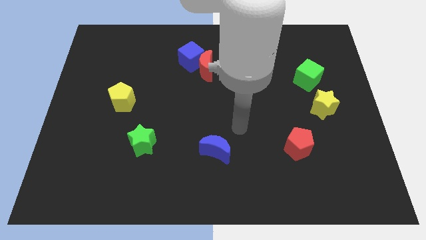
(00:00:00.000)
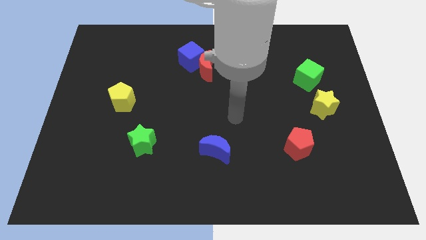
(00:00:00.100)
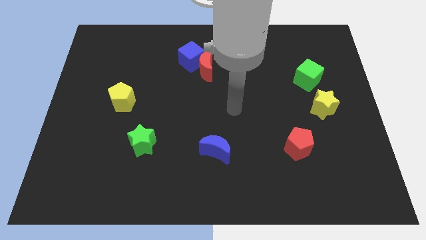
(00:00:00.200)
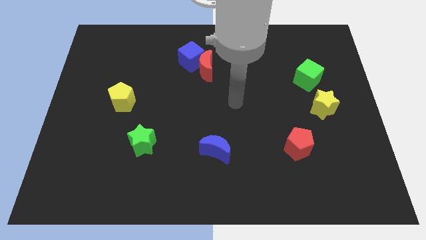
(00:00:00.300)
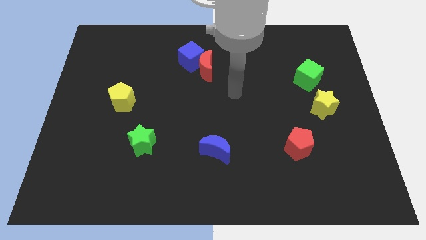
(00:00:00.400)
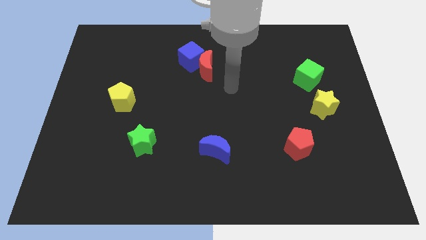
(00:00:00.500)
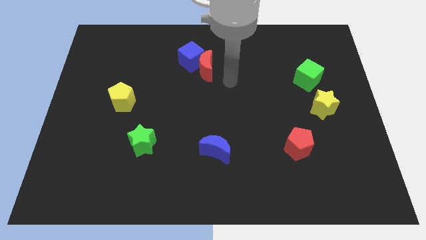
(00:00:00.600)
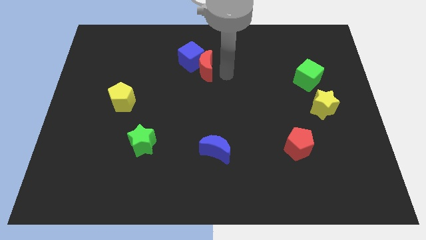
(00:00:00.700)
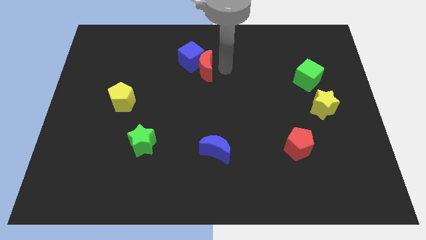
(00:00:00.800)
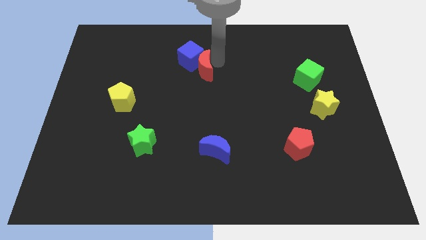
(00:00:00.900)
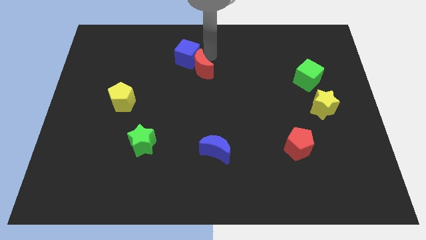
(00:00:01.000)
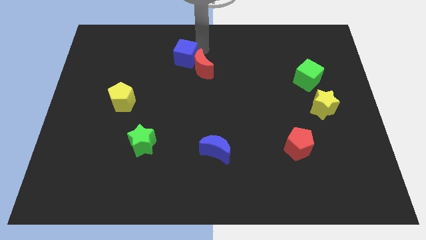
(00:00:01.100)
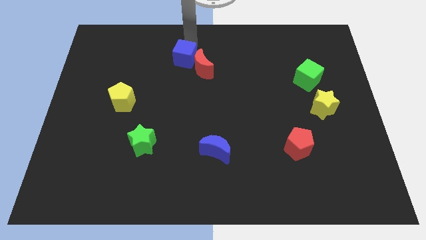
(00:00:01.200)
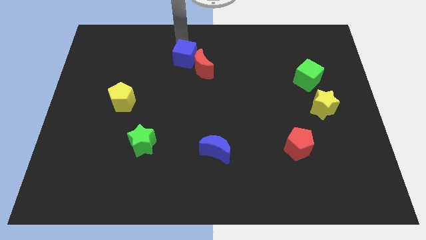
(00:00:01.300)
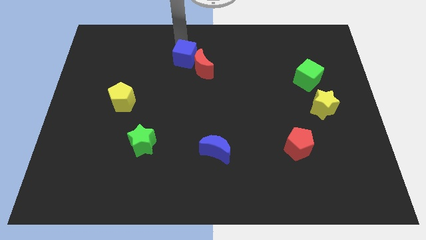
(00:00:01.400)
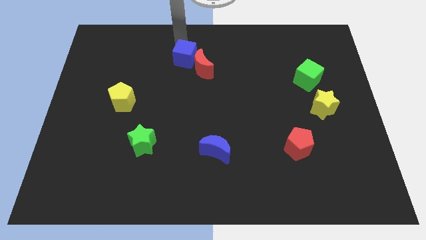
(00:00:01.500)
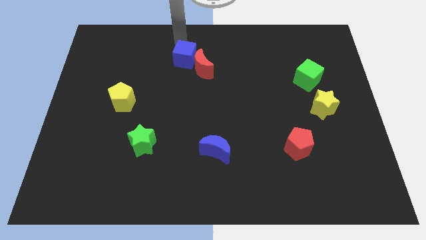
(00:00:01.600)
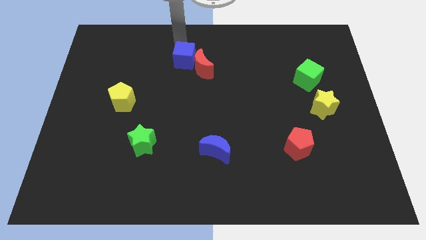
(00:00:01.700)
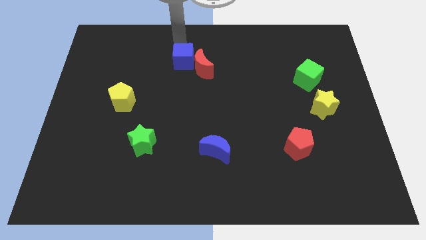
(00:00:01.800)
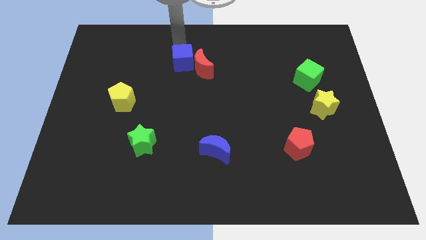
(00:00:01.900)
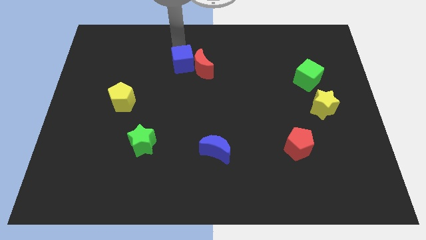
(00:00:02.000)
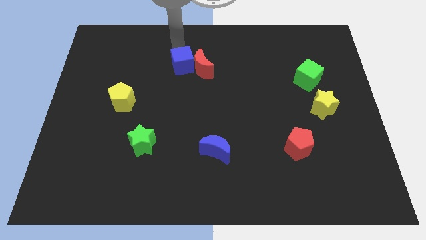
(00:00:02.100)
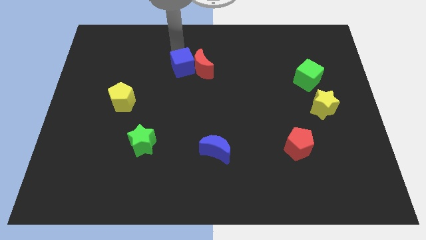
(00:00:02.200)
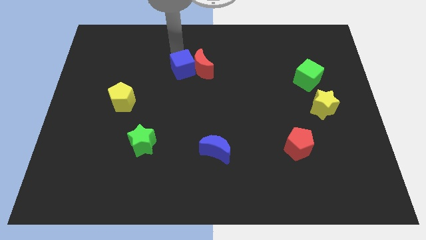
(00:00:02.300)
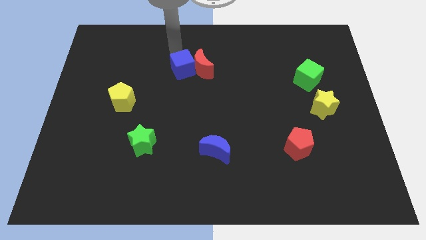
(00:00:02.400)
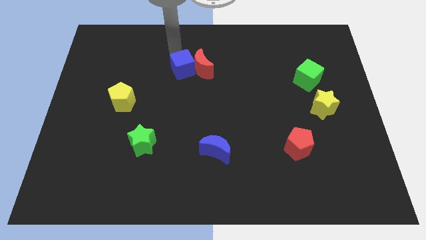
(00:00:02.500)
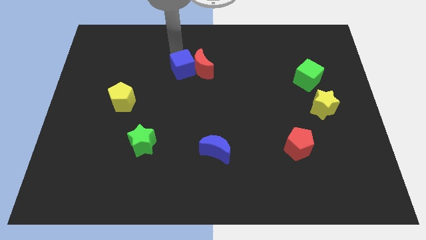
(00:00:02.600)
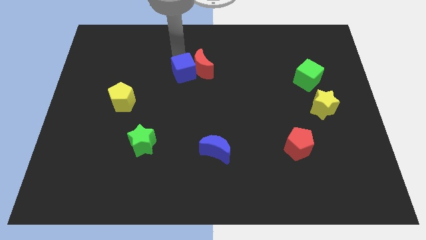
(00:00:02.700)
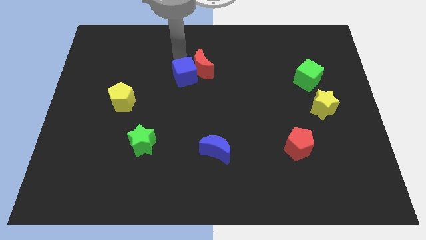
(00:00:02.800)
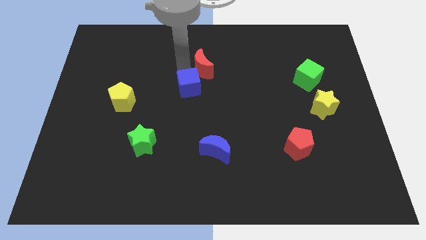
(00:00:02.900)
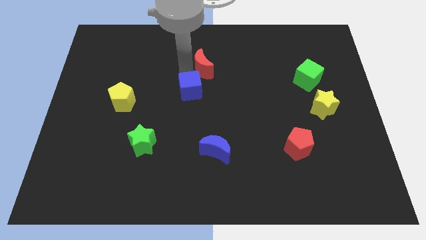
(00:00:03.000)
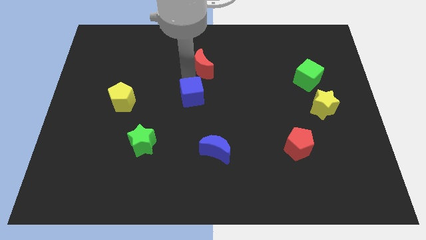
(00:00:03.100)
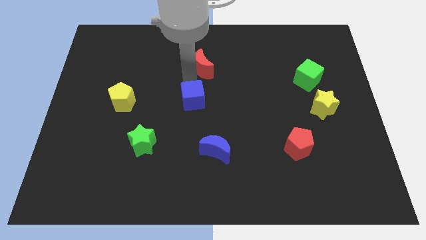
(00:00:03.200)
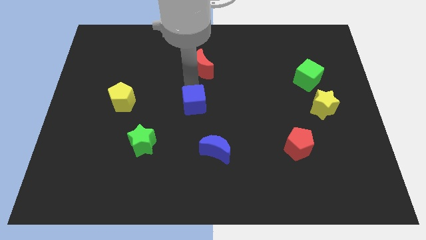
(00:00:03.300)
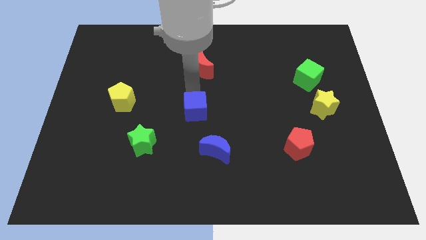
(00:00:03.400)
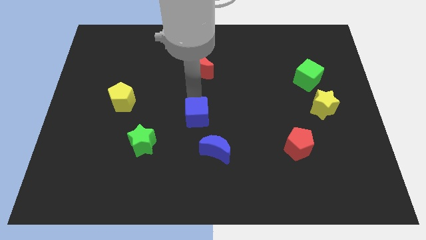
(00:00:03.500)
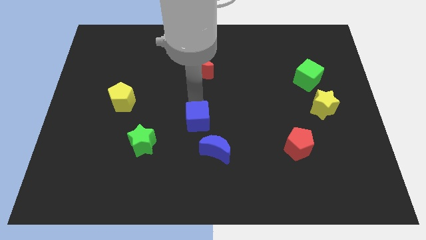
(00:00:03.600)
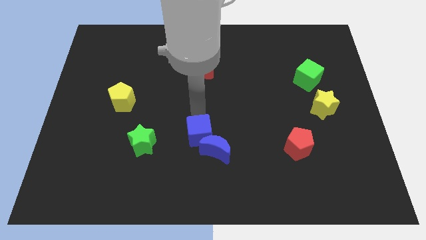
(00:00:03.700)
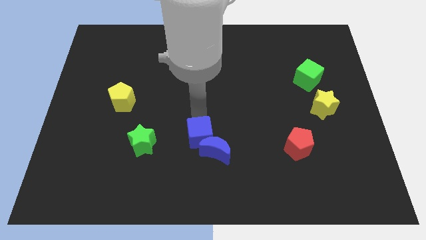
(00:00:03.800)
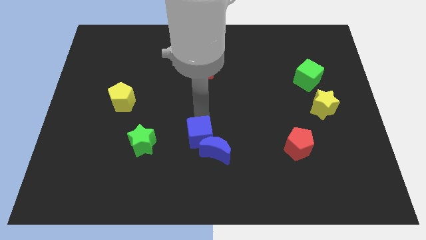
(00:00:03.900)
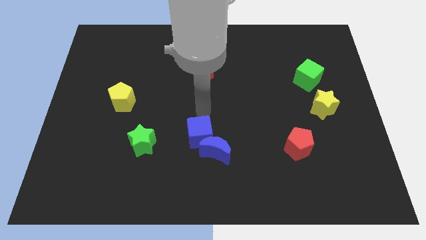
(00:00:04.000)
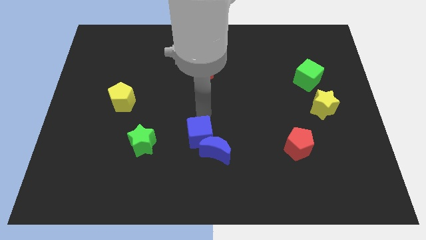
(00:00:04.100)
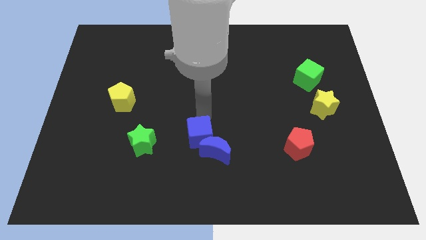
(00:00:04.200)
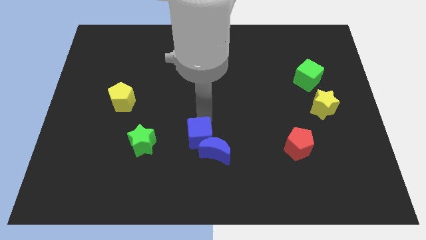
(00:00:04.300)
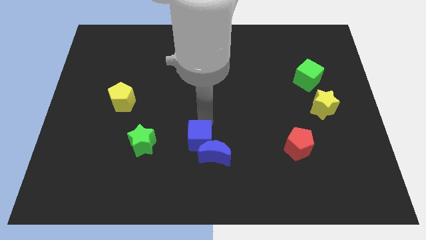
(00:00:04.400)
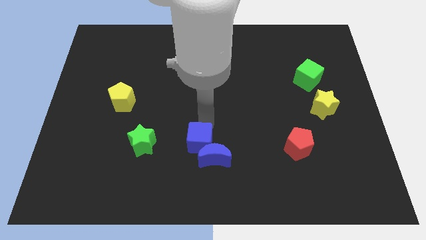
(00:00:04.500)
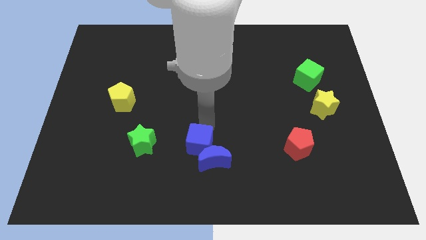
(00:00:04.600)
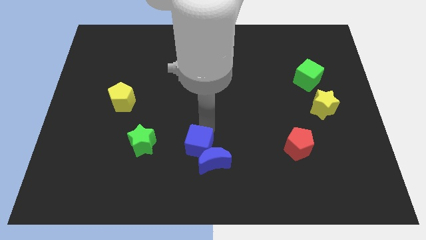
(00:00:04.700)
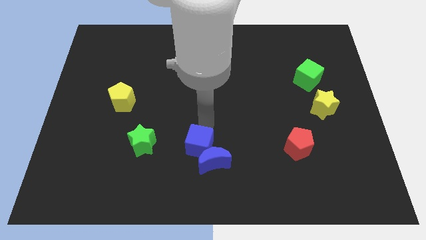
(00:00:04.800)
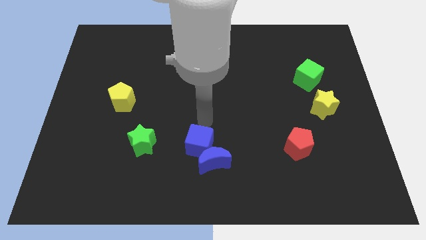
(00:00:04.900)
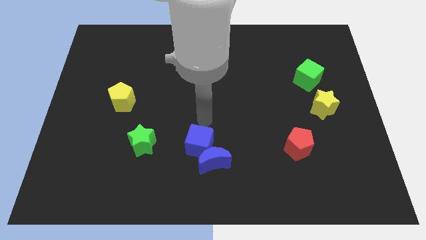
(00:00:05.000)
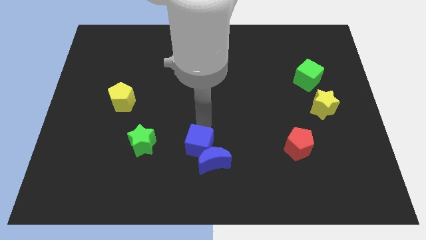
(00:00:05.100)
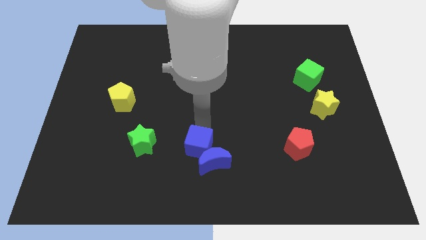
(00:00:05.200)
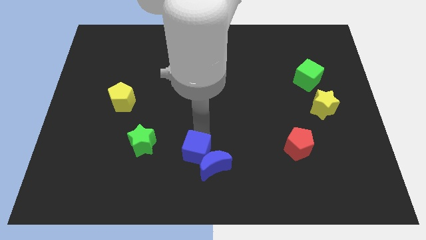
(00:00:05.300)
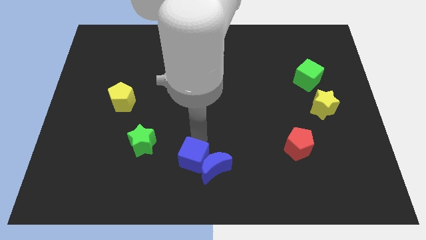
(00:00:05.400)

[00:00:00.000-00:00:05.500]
push the blue cube to the bottom side
